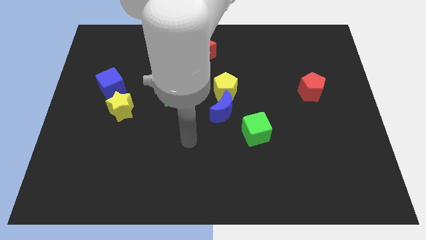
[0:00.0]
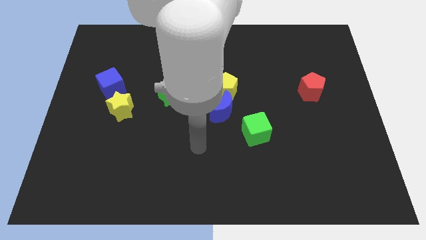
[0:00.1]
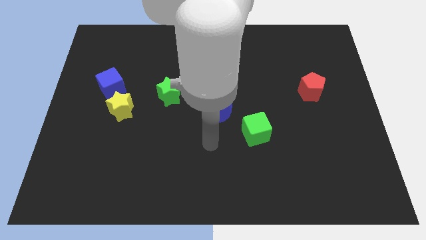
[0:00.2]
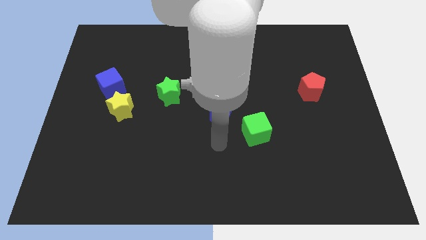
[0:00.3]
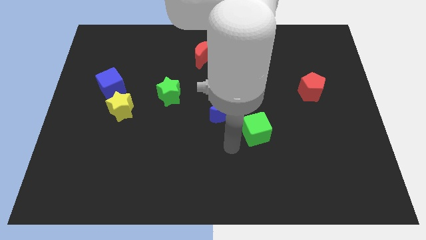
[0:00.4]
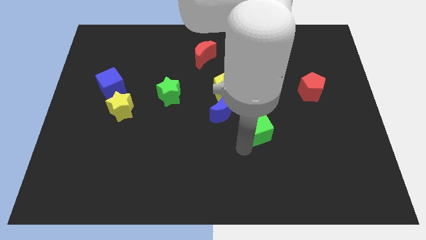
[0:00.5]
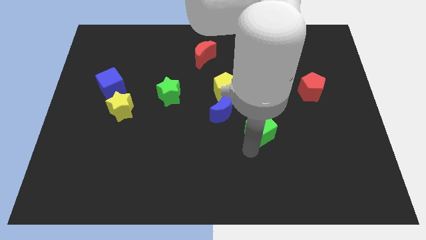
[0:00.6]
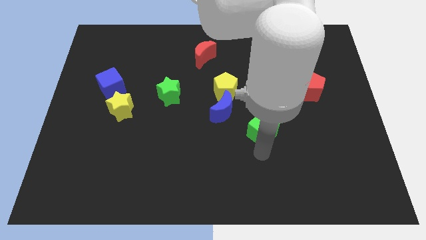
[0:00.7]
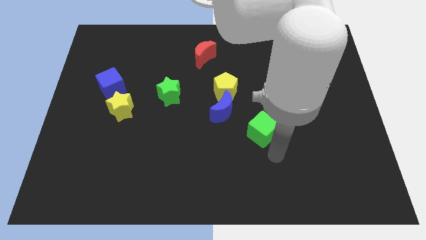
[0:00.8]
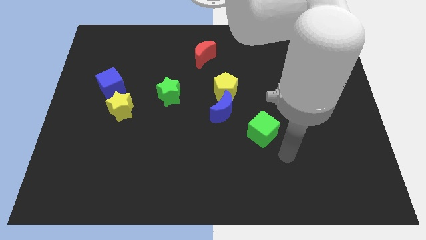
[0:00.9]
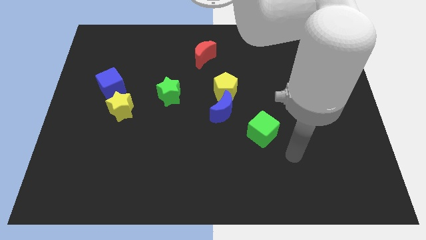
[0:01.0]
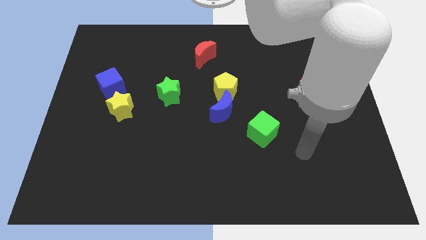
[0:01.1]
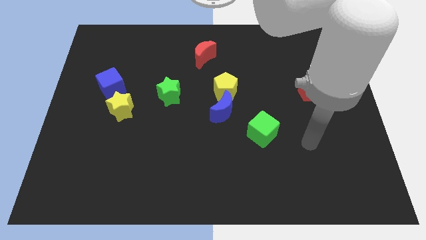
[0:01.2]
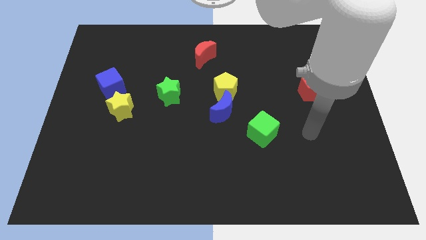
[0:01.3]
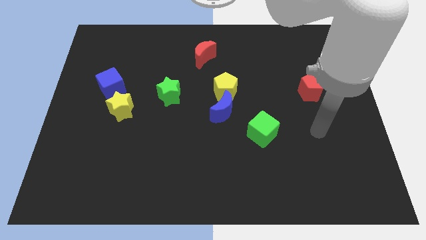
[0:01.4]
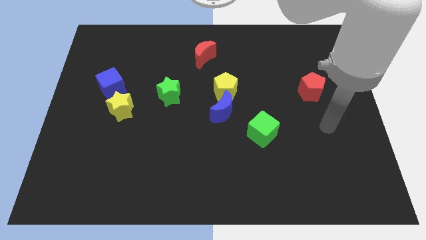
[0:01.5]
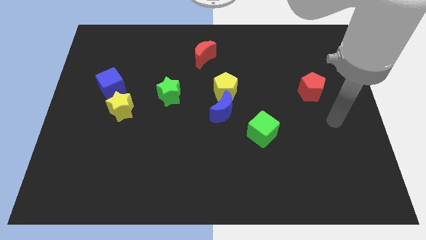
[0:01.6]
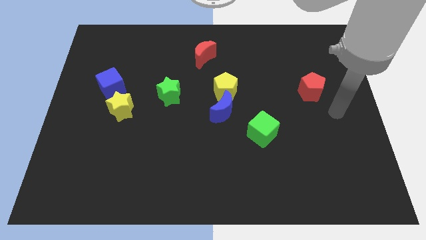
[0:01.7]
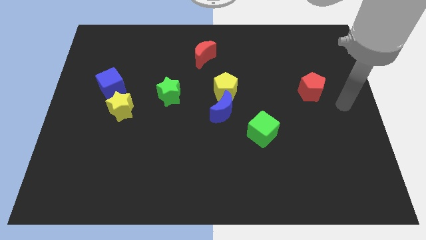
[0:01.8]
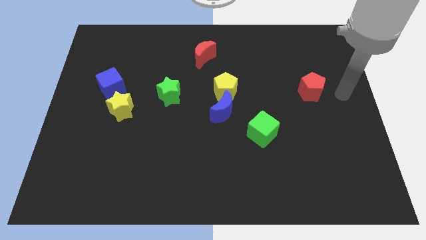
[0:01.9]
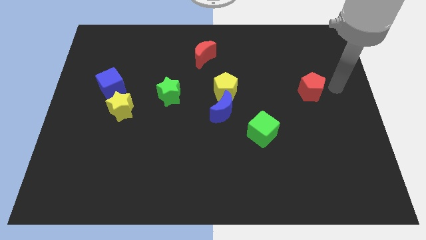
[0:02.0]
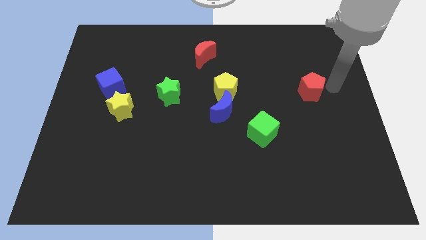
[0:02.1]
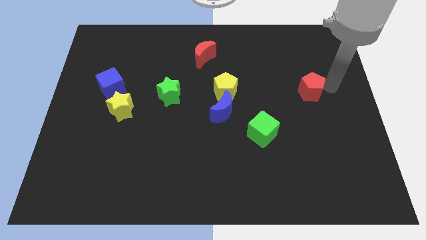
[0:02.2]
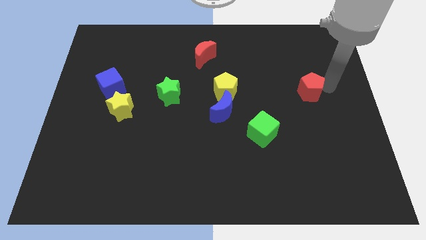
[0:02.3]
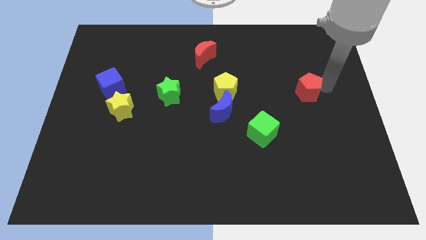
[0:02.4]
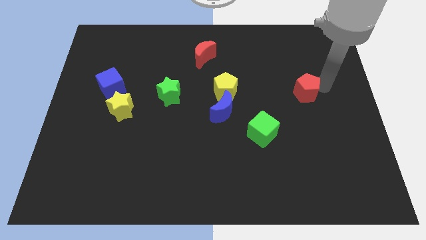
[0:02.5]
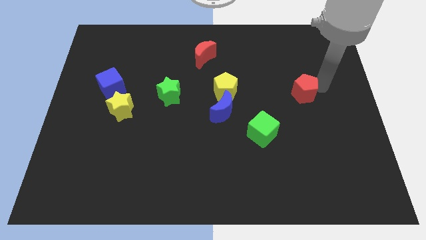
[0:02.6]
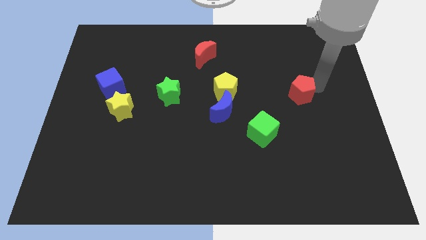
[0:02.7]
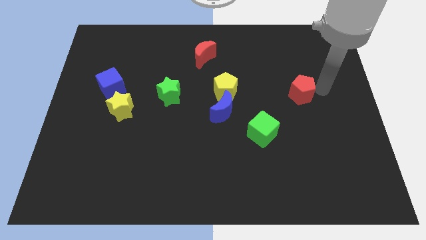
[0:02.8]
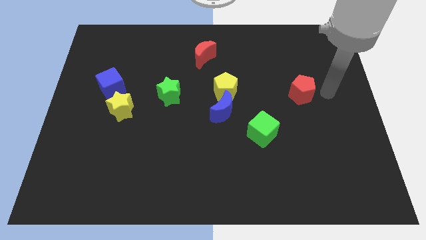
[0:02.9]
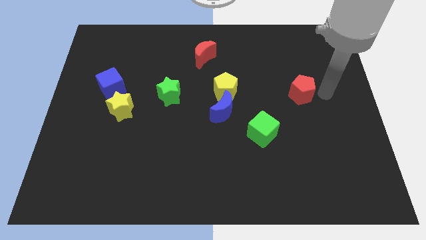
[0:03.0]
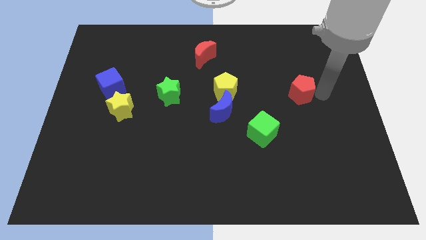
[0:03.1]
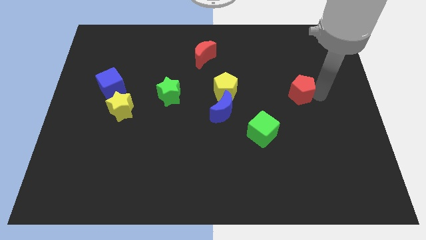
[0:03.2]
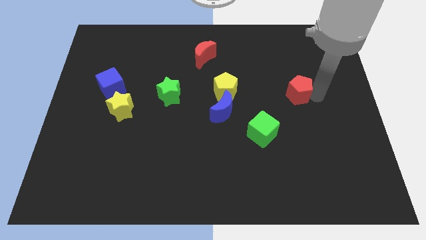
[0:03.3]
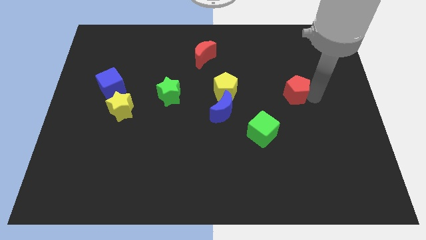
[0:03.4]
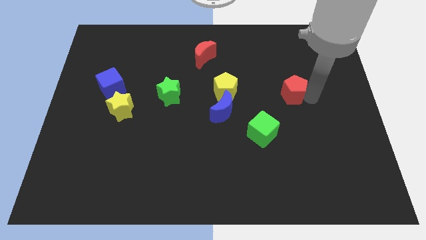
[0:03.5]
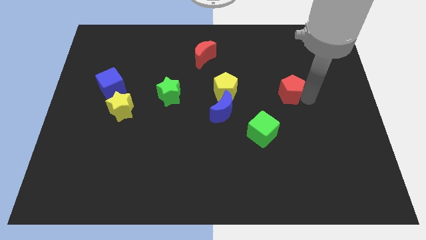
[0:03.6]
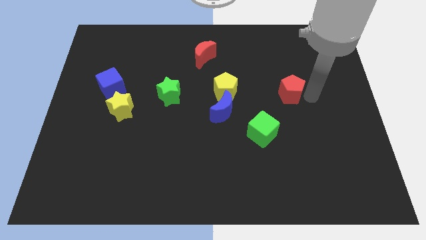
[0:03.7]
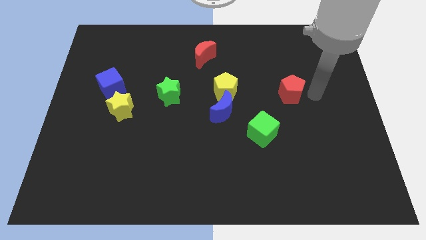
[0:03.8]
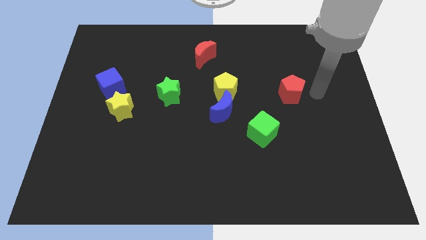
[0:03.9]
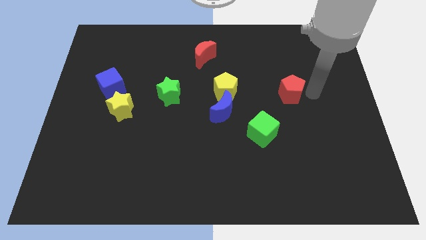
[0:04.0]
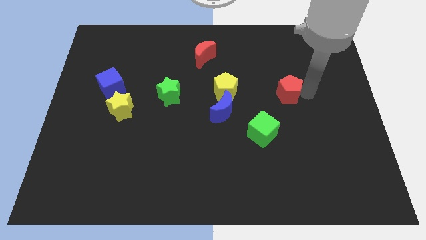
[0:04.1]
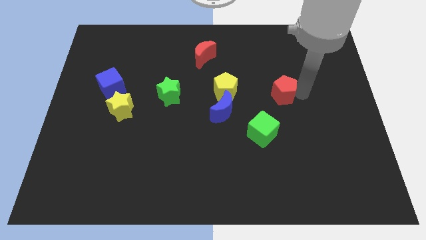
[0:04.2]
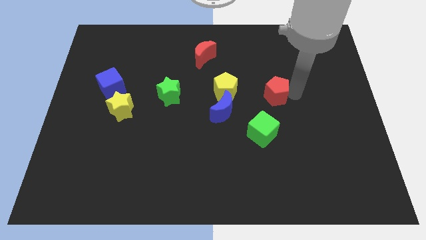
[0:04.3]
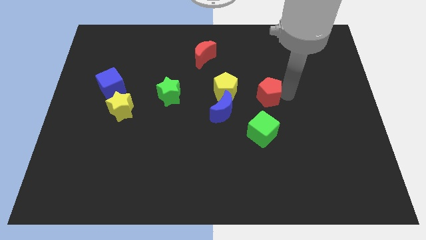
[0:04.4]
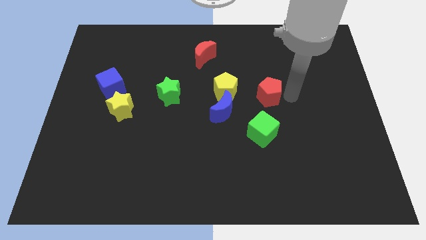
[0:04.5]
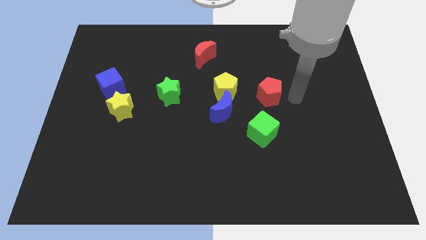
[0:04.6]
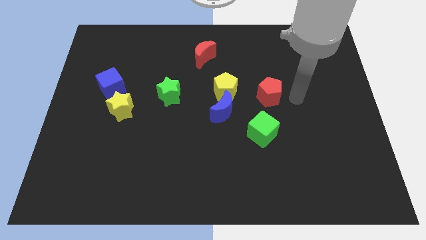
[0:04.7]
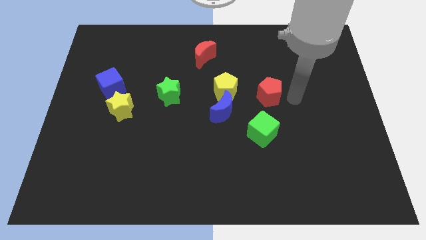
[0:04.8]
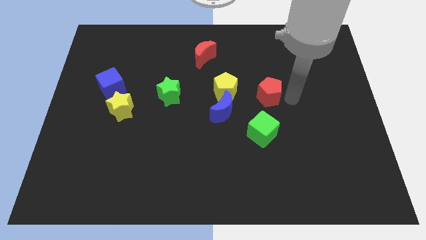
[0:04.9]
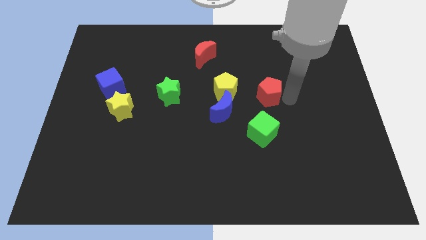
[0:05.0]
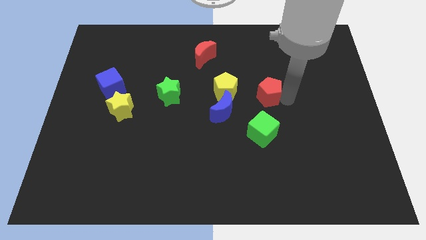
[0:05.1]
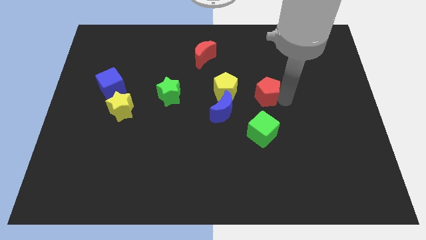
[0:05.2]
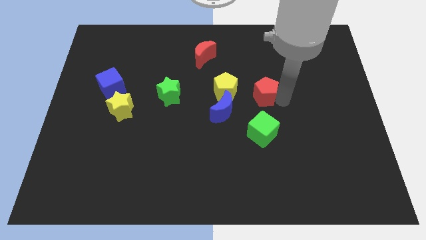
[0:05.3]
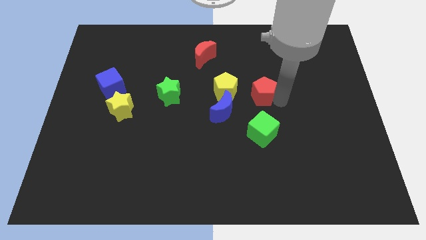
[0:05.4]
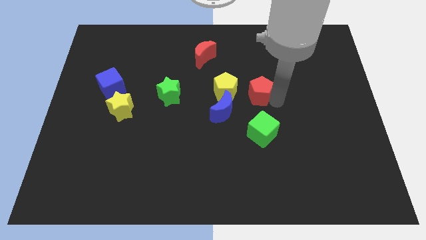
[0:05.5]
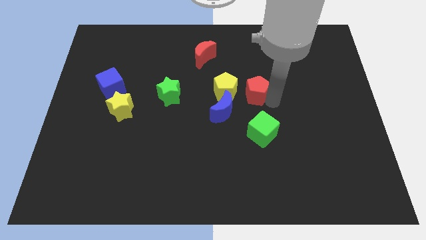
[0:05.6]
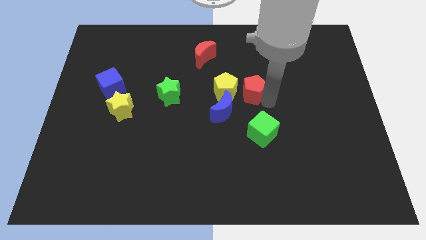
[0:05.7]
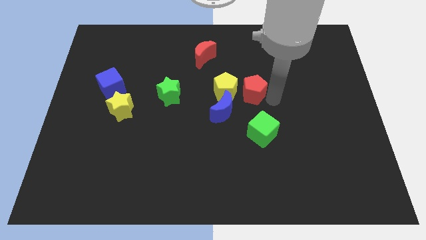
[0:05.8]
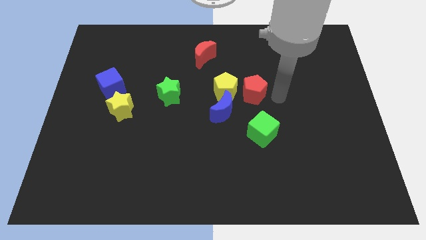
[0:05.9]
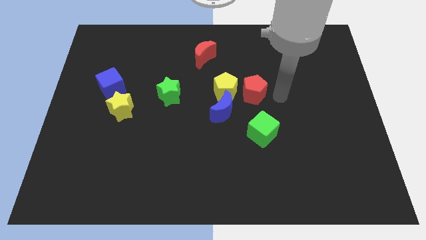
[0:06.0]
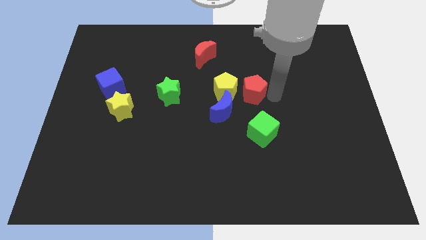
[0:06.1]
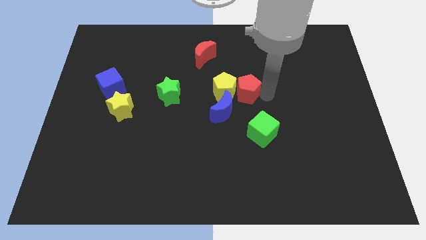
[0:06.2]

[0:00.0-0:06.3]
slide the red pentagon next to the yellow pentagon

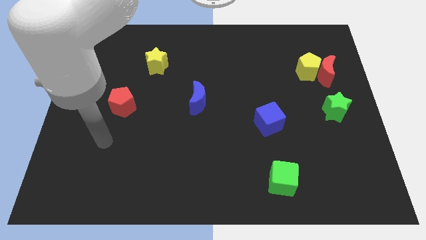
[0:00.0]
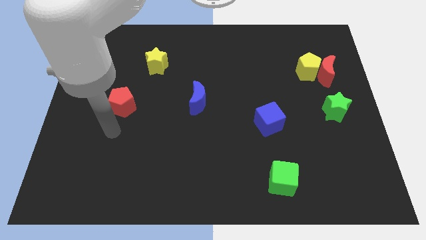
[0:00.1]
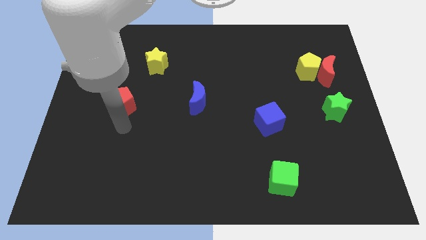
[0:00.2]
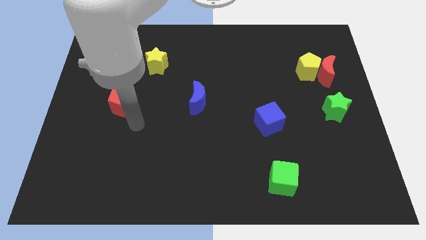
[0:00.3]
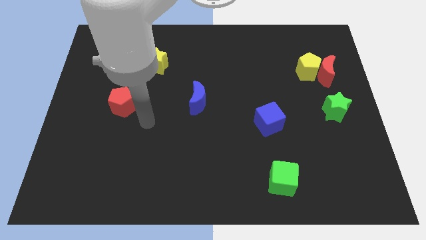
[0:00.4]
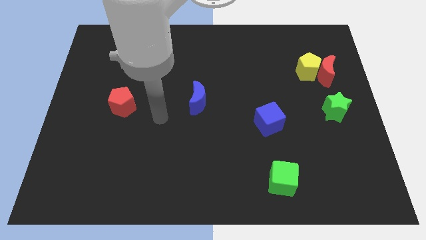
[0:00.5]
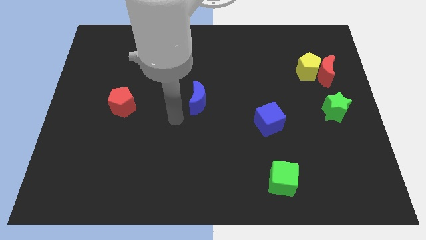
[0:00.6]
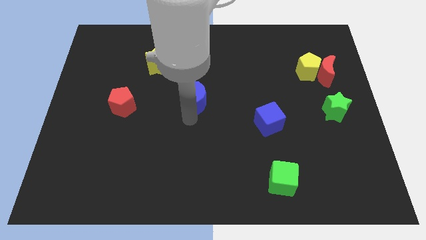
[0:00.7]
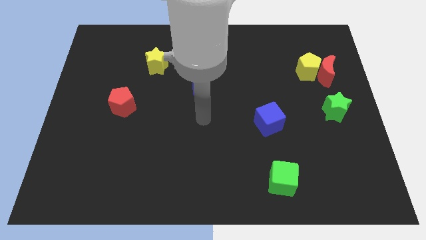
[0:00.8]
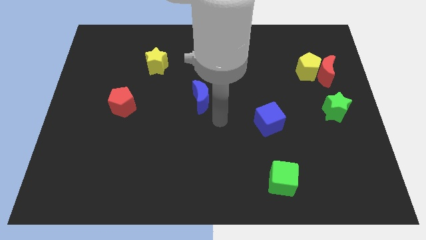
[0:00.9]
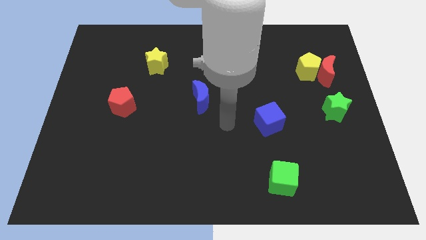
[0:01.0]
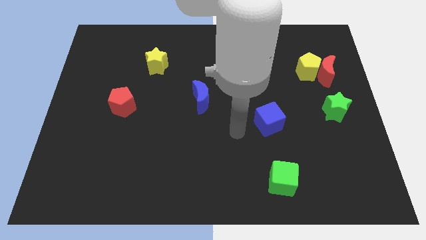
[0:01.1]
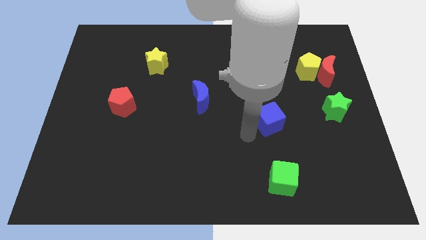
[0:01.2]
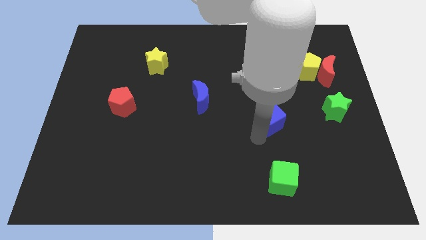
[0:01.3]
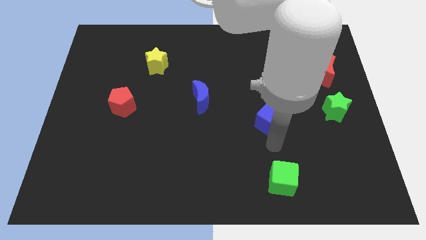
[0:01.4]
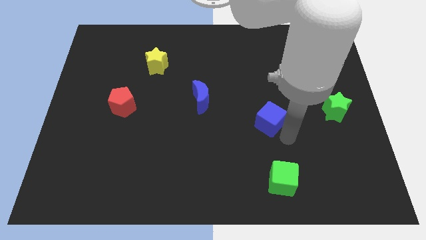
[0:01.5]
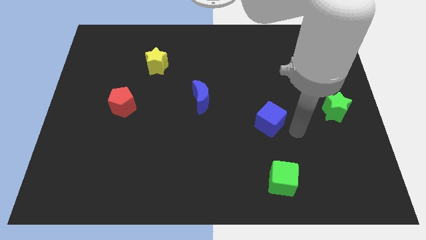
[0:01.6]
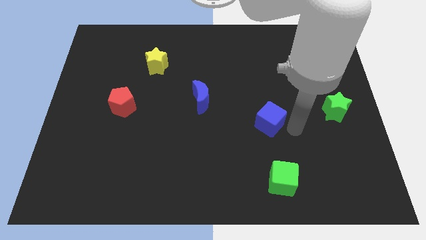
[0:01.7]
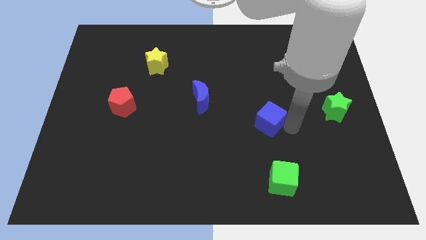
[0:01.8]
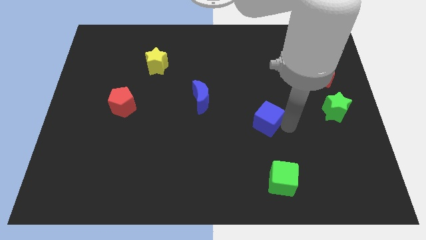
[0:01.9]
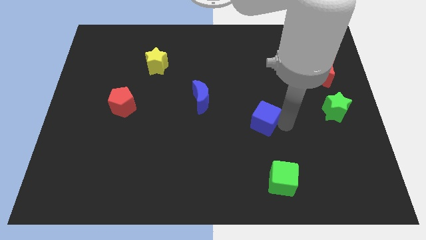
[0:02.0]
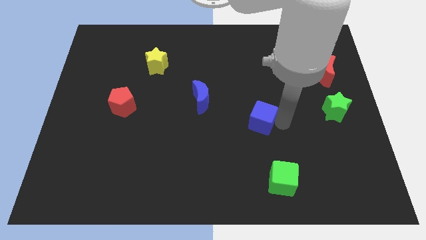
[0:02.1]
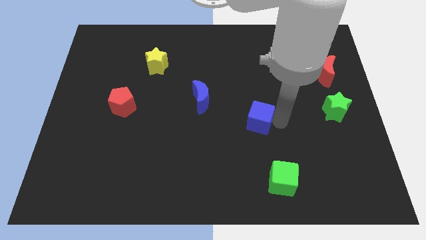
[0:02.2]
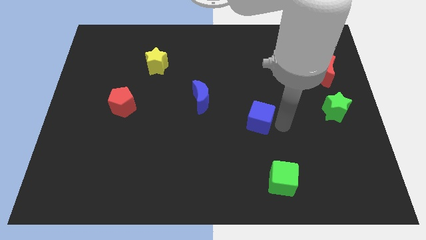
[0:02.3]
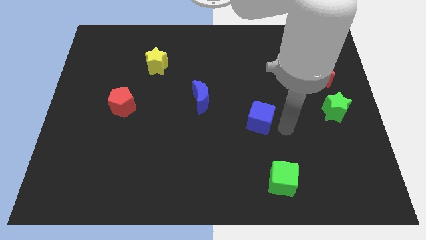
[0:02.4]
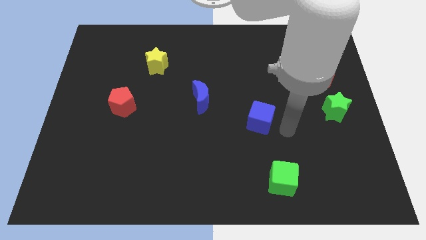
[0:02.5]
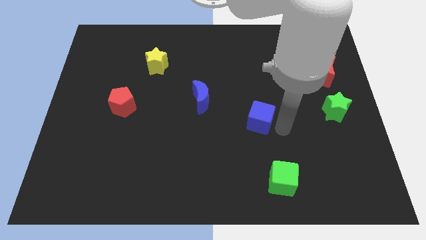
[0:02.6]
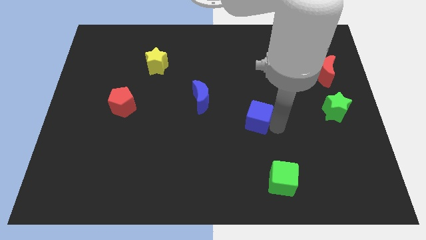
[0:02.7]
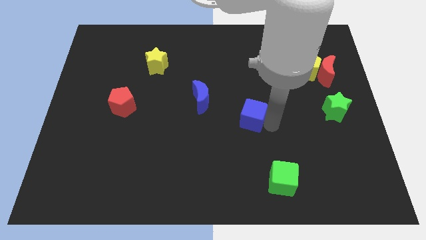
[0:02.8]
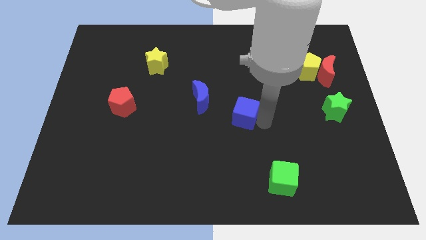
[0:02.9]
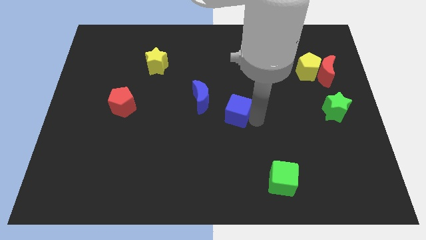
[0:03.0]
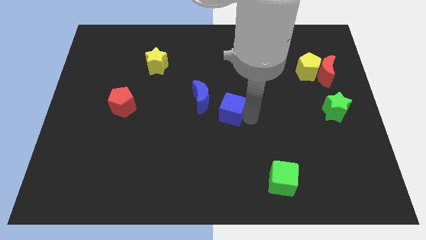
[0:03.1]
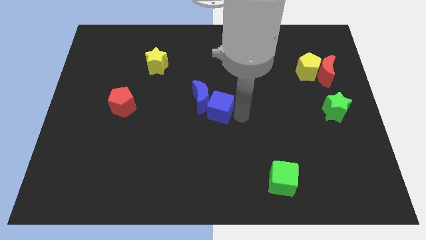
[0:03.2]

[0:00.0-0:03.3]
slide the blue cube next to the blue moon
